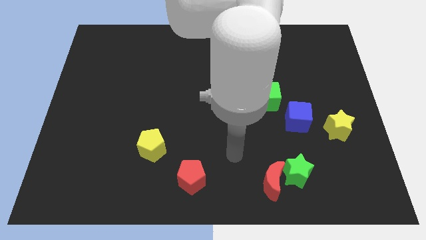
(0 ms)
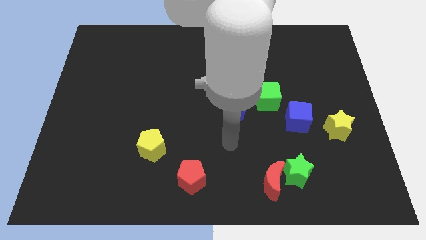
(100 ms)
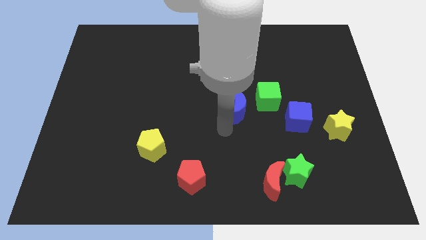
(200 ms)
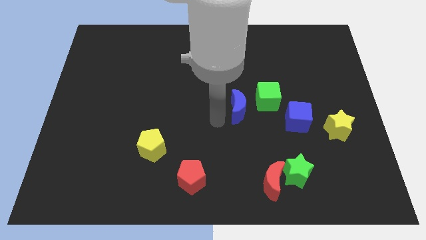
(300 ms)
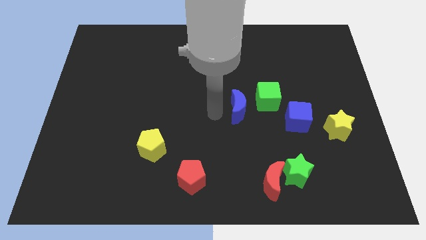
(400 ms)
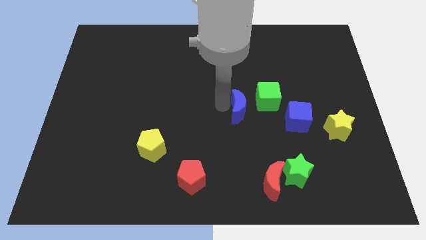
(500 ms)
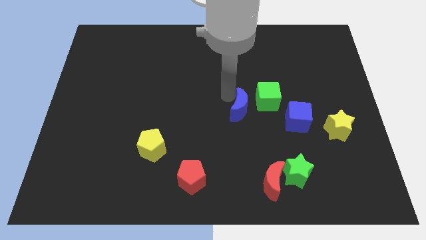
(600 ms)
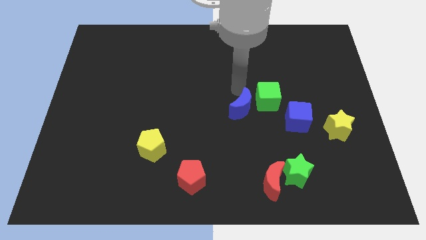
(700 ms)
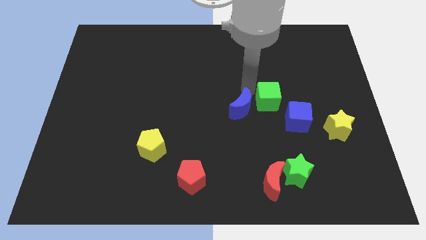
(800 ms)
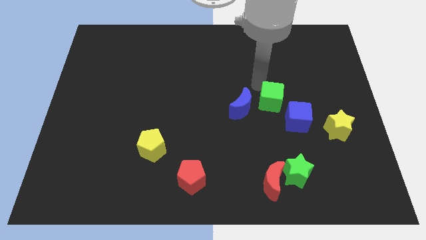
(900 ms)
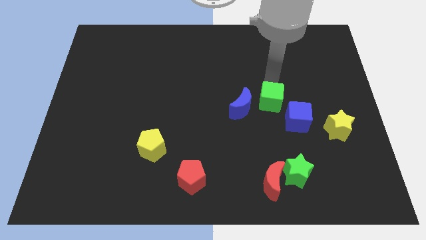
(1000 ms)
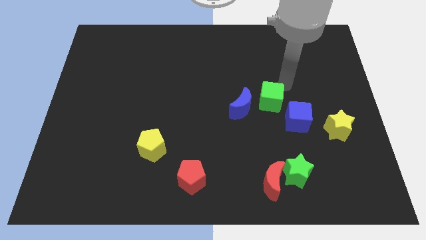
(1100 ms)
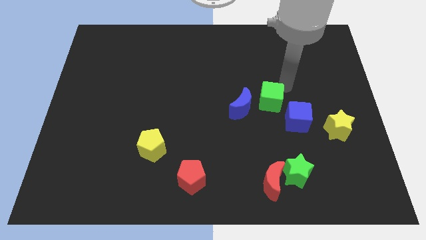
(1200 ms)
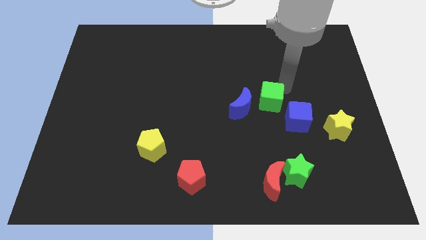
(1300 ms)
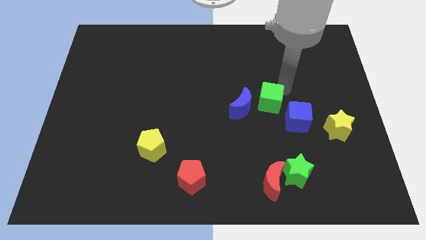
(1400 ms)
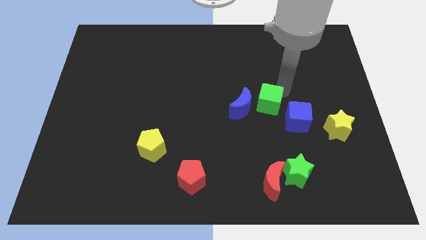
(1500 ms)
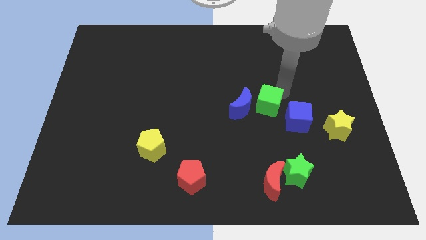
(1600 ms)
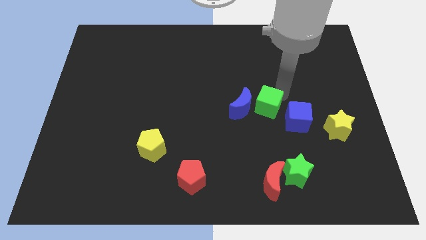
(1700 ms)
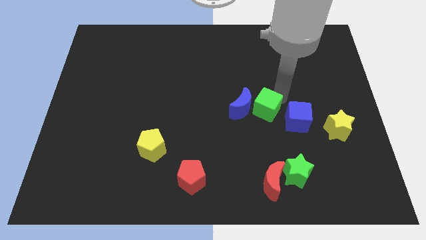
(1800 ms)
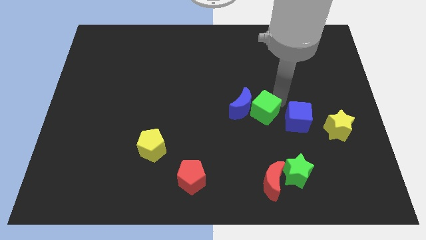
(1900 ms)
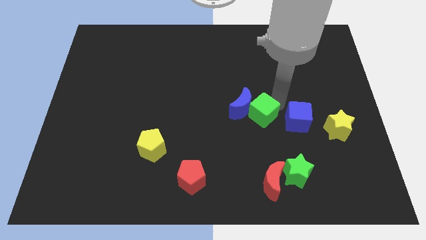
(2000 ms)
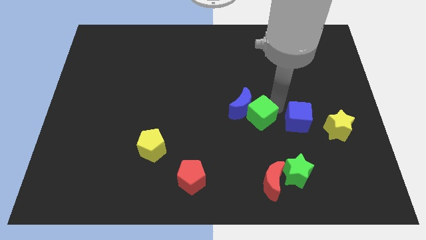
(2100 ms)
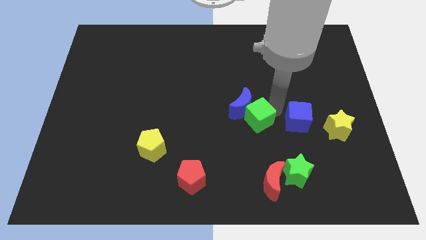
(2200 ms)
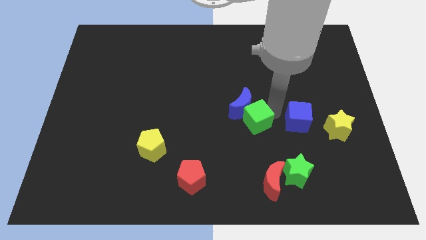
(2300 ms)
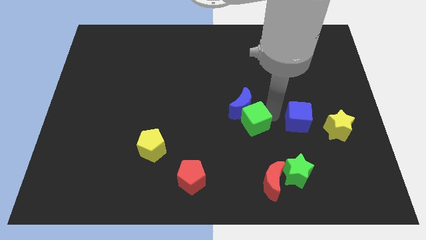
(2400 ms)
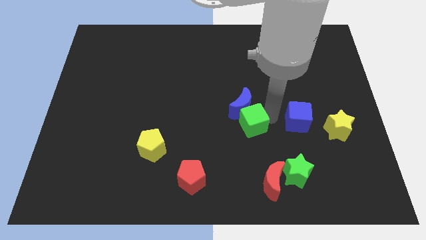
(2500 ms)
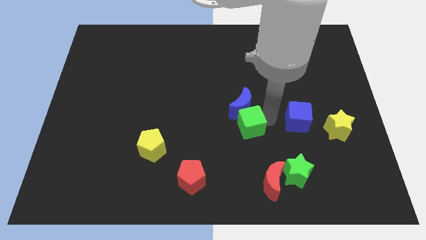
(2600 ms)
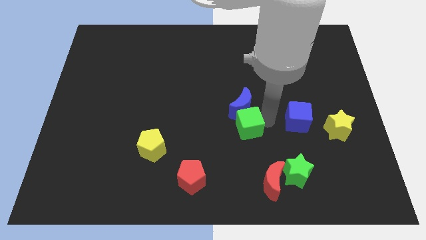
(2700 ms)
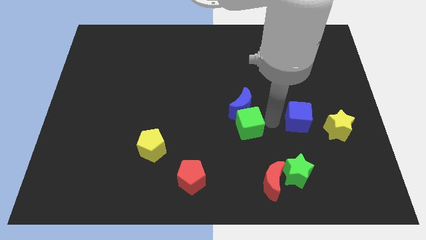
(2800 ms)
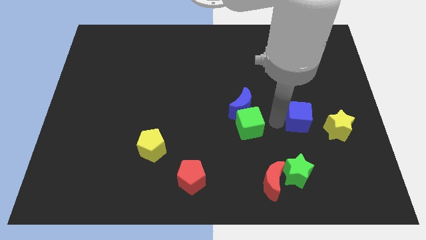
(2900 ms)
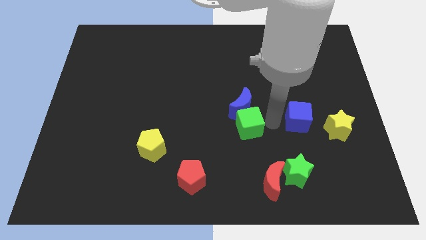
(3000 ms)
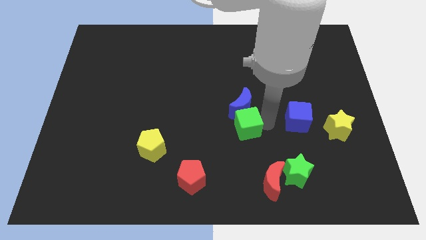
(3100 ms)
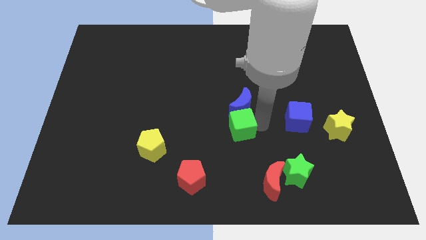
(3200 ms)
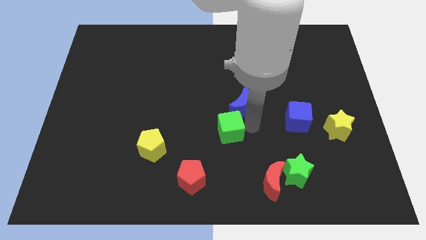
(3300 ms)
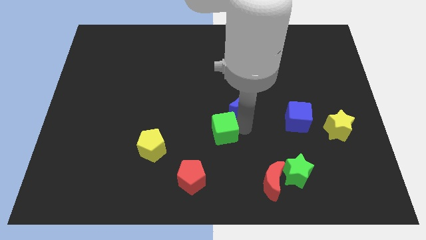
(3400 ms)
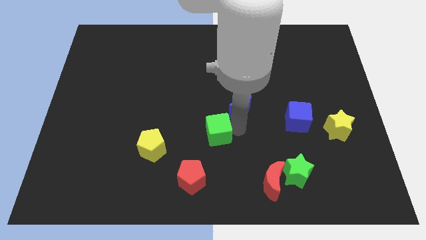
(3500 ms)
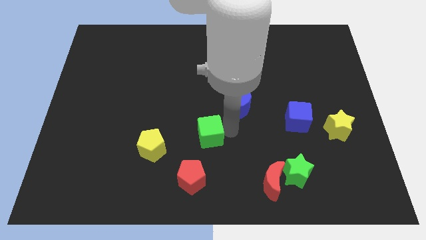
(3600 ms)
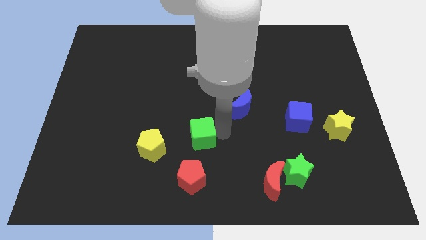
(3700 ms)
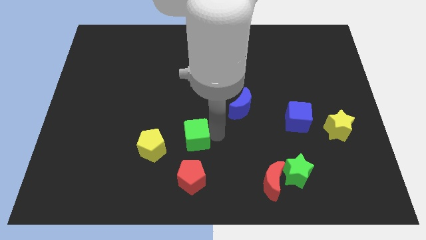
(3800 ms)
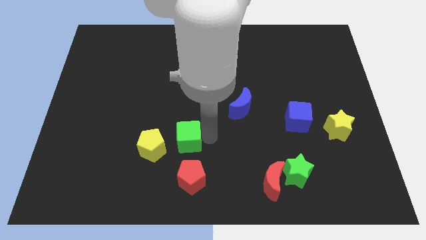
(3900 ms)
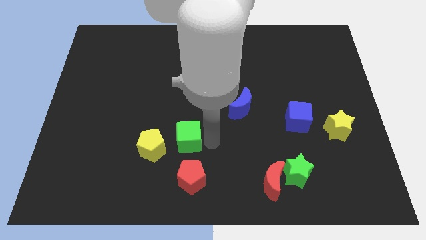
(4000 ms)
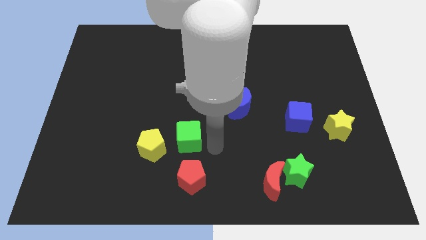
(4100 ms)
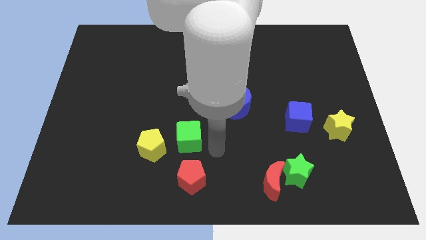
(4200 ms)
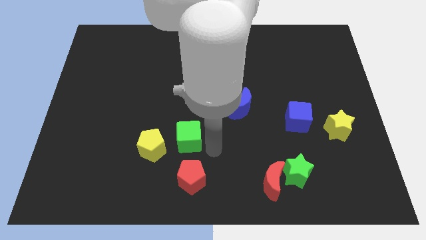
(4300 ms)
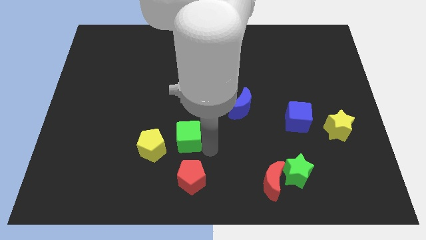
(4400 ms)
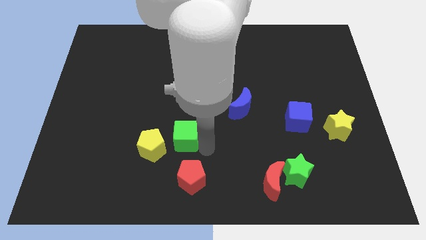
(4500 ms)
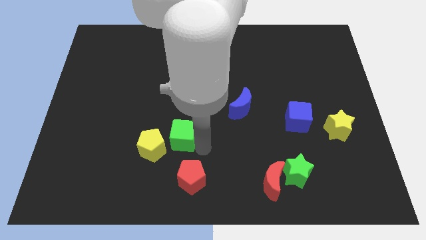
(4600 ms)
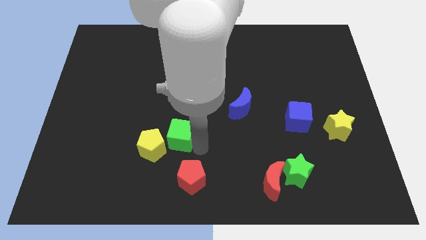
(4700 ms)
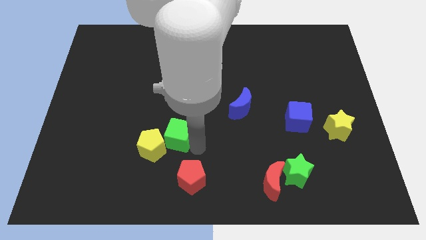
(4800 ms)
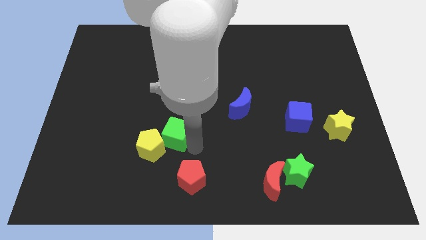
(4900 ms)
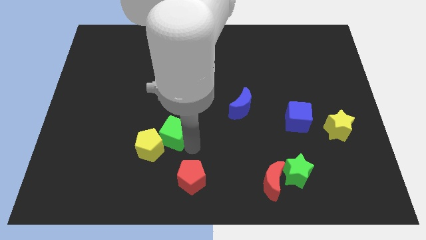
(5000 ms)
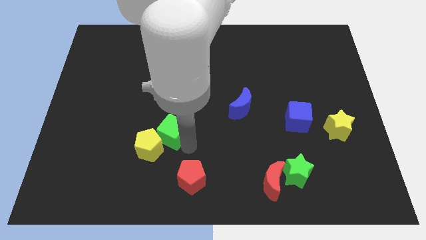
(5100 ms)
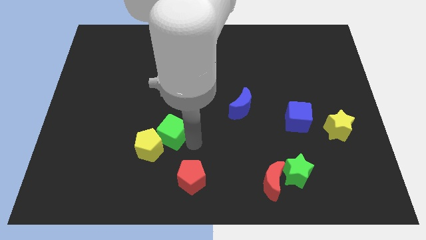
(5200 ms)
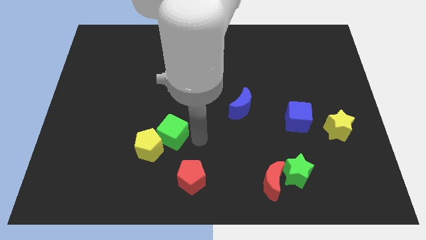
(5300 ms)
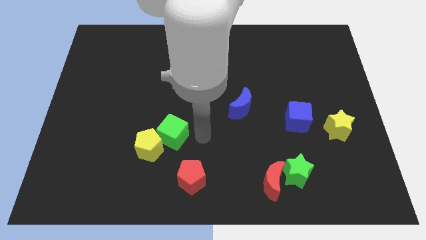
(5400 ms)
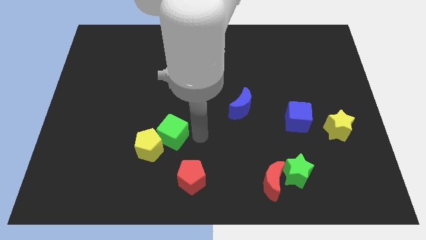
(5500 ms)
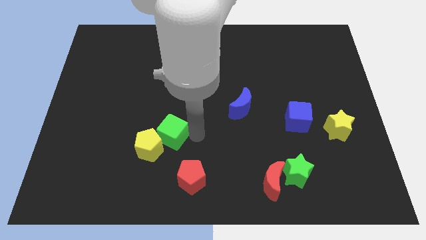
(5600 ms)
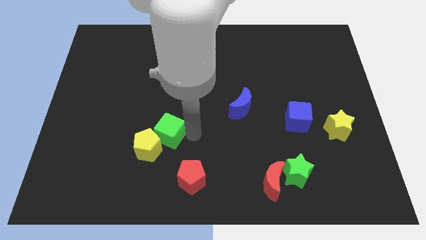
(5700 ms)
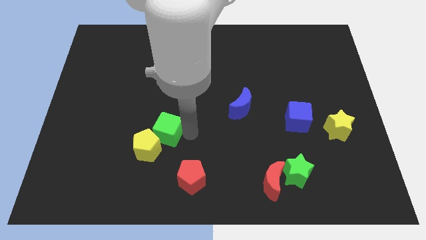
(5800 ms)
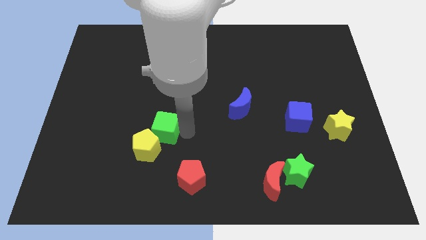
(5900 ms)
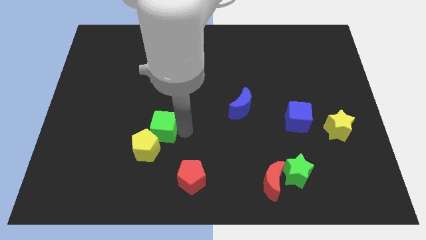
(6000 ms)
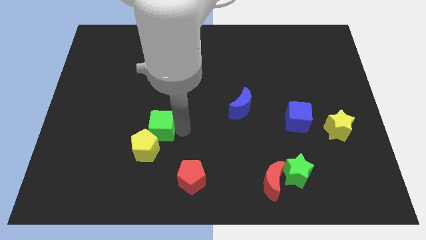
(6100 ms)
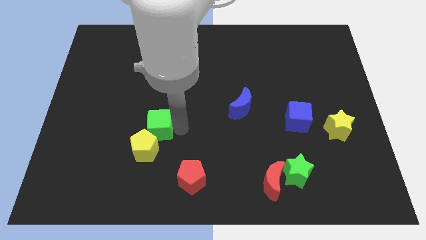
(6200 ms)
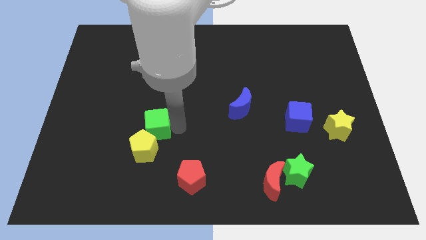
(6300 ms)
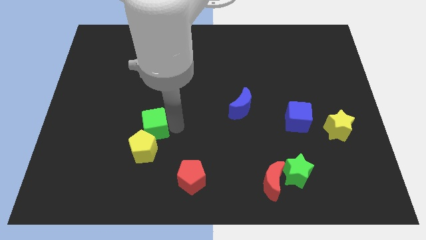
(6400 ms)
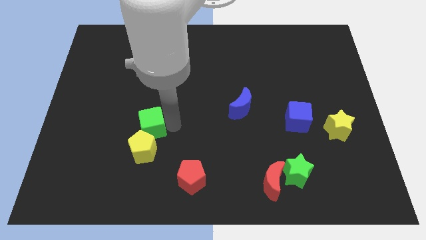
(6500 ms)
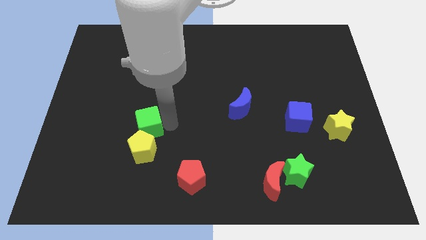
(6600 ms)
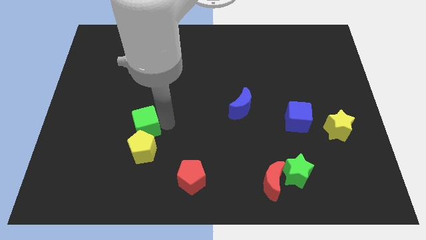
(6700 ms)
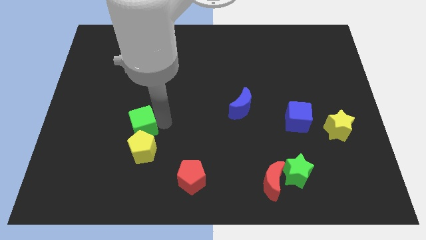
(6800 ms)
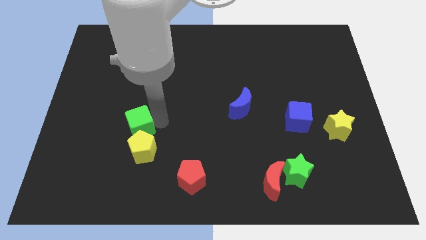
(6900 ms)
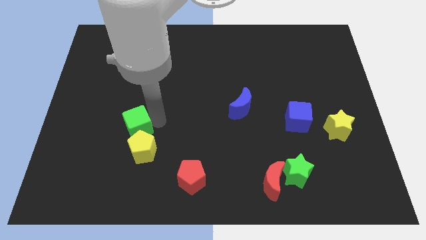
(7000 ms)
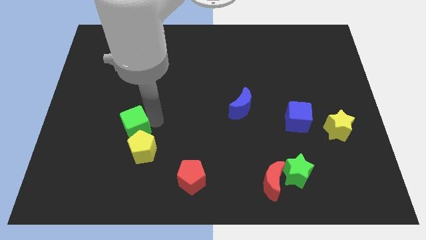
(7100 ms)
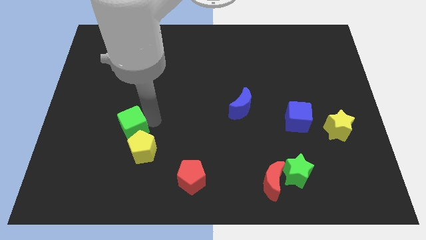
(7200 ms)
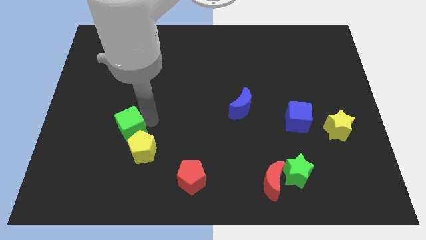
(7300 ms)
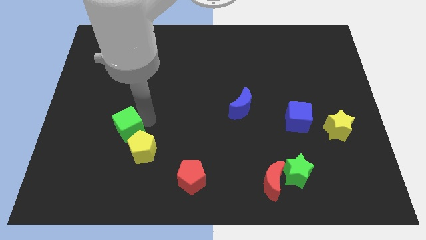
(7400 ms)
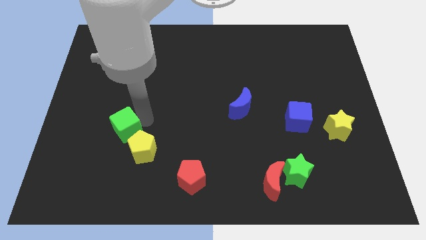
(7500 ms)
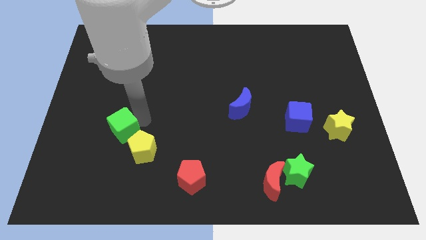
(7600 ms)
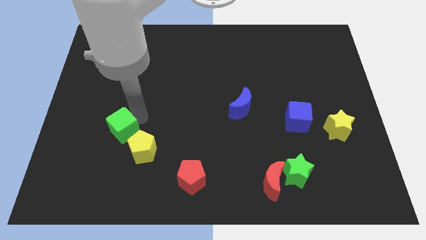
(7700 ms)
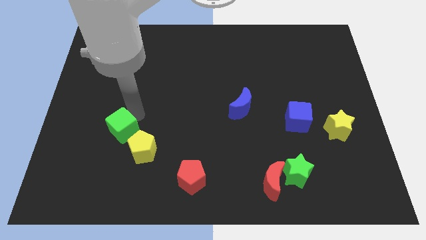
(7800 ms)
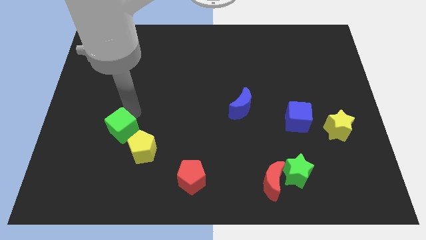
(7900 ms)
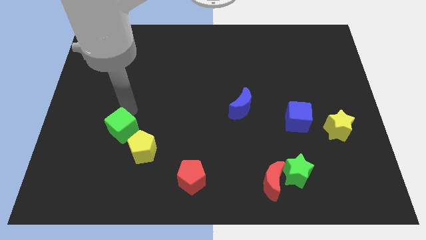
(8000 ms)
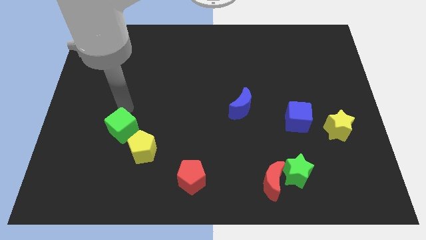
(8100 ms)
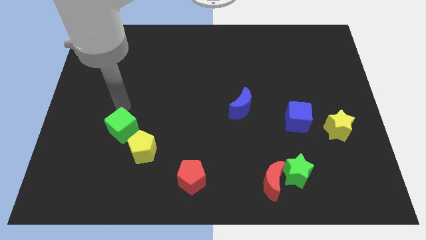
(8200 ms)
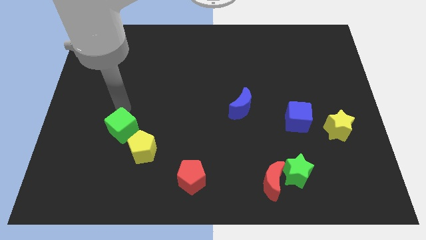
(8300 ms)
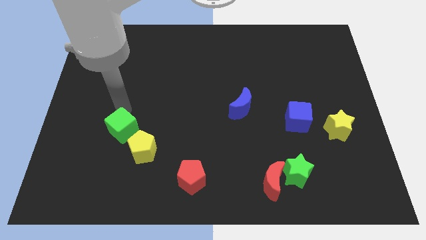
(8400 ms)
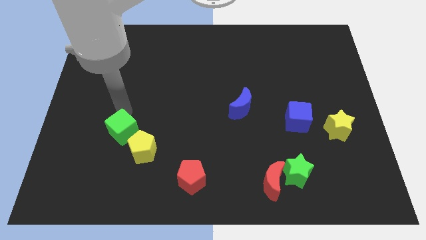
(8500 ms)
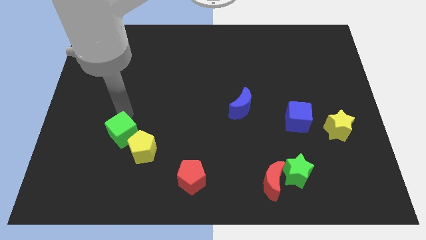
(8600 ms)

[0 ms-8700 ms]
move the green cube to the left of the yellow pentagon
